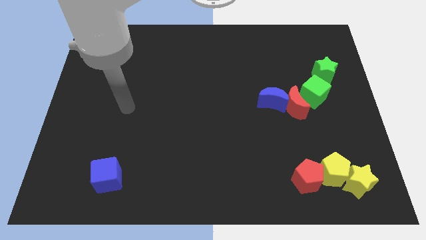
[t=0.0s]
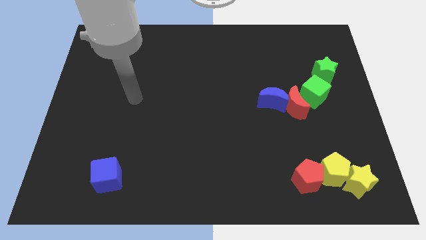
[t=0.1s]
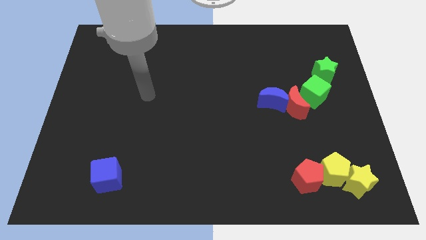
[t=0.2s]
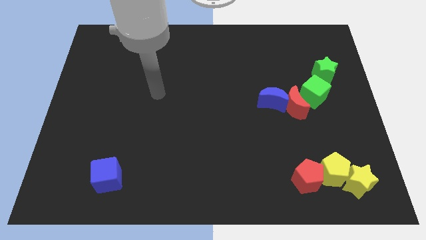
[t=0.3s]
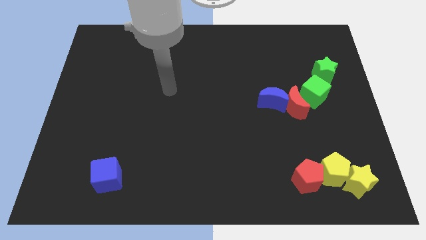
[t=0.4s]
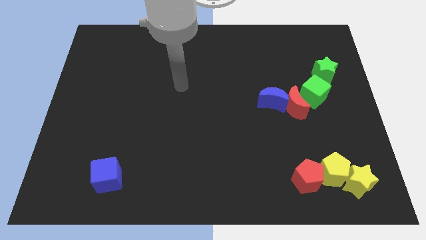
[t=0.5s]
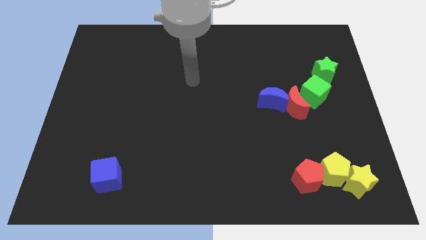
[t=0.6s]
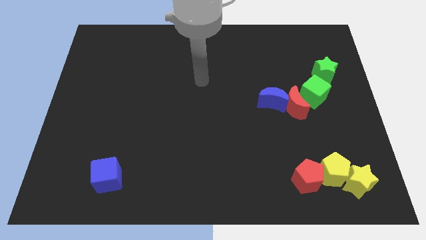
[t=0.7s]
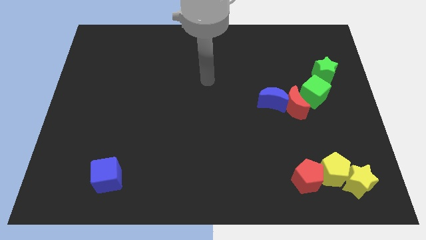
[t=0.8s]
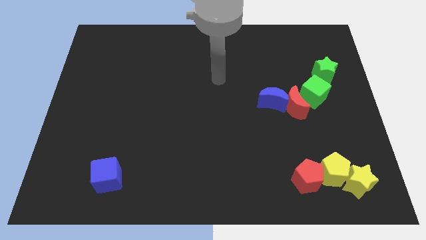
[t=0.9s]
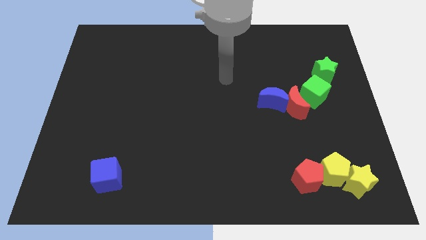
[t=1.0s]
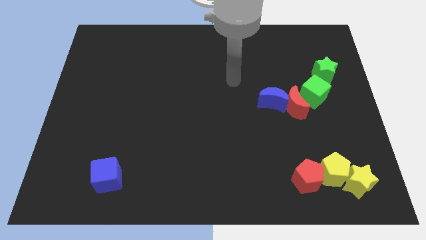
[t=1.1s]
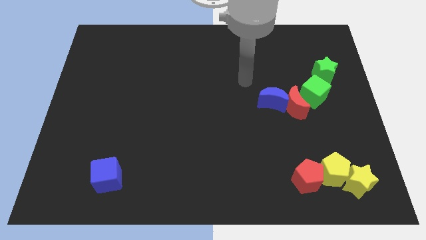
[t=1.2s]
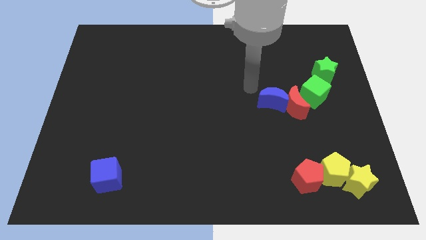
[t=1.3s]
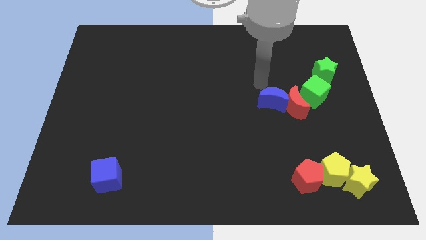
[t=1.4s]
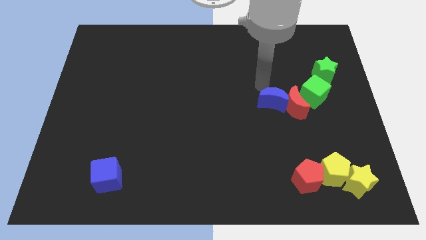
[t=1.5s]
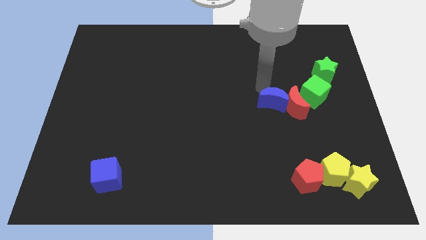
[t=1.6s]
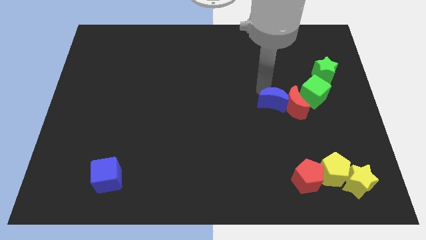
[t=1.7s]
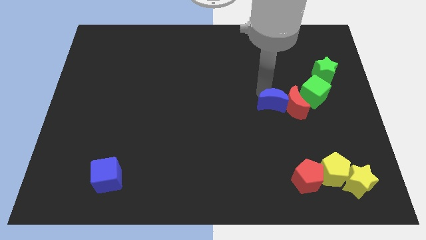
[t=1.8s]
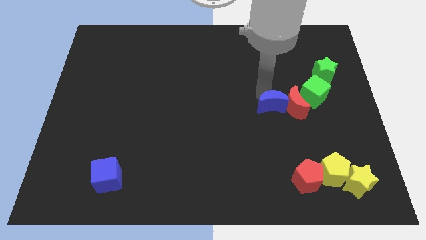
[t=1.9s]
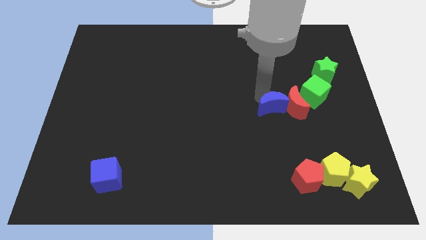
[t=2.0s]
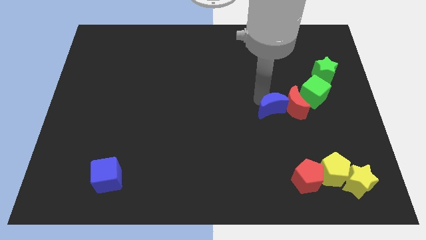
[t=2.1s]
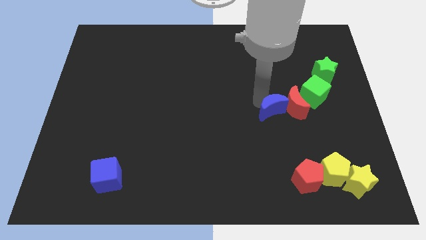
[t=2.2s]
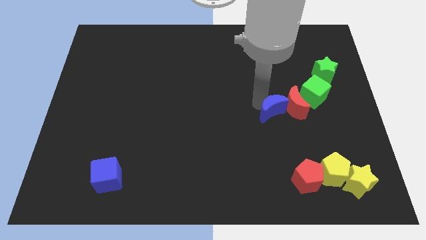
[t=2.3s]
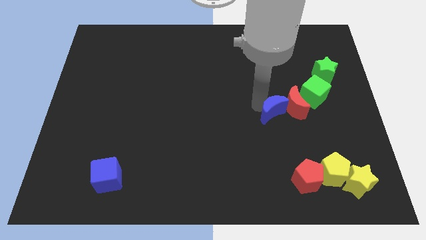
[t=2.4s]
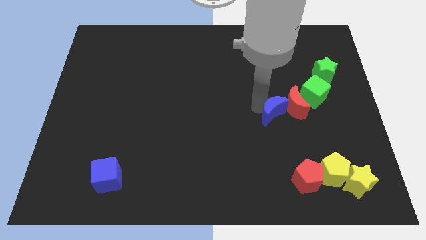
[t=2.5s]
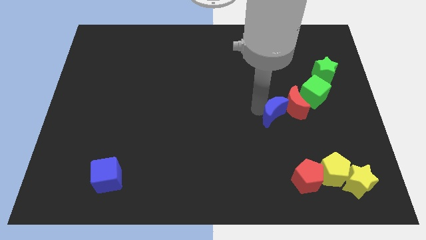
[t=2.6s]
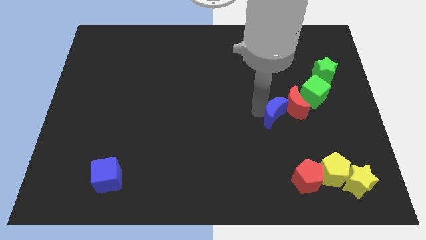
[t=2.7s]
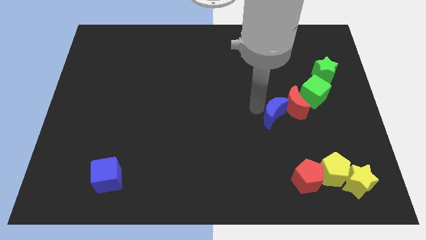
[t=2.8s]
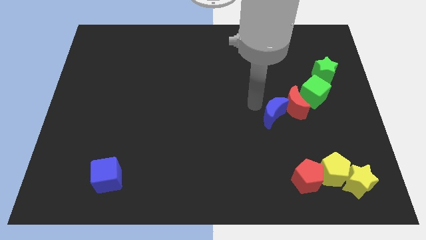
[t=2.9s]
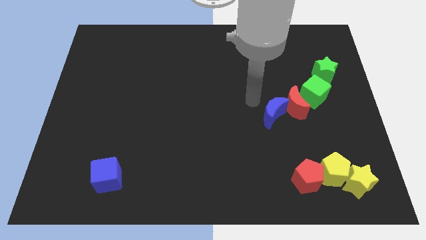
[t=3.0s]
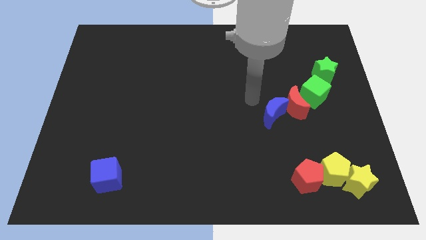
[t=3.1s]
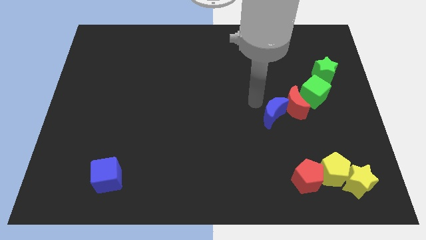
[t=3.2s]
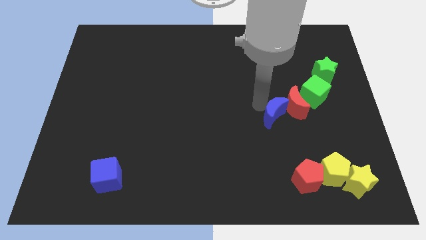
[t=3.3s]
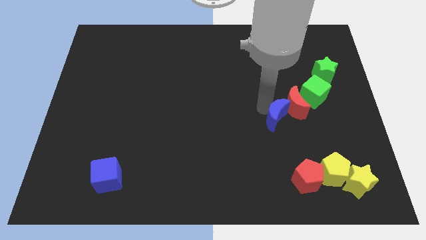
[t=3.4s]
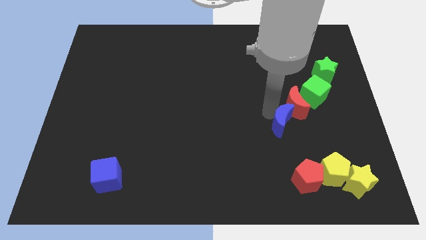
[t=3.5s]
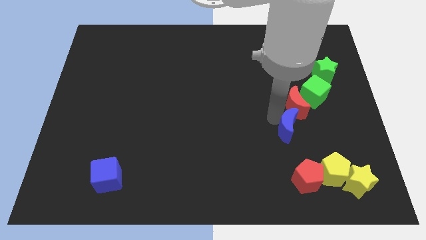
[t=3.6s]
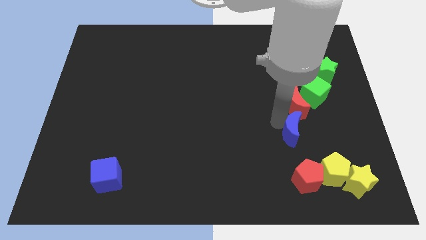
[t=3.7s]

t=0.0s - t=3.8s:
push the blue moon downwards and then right a bit

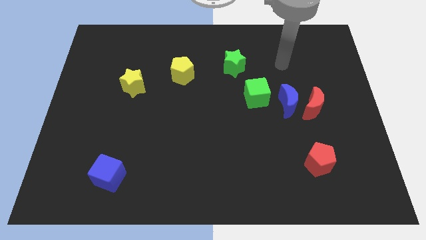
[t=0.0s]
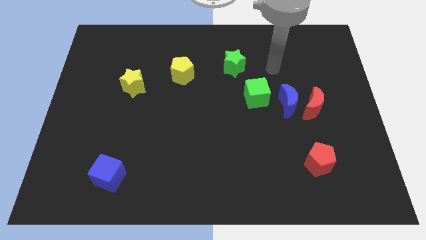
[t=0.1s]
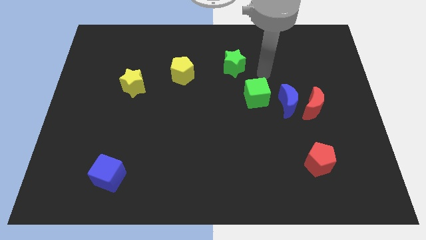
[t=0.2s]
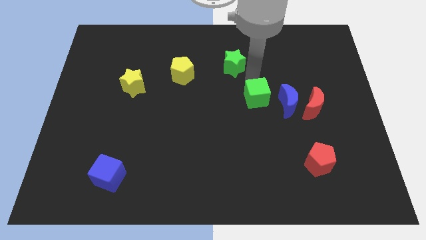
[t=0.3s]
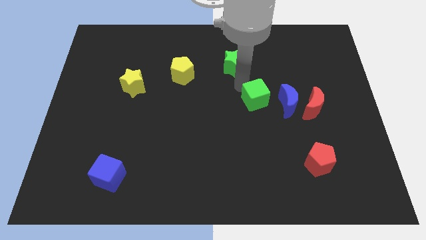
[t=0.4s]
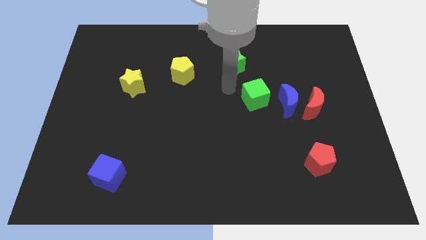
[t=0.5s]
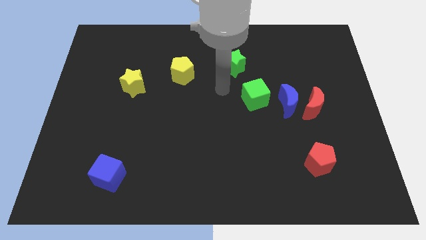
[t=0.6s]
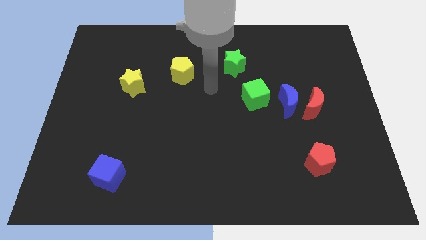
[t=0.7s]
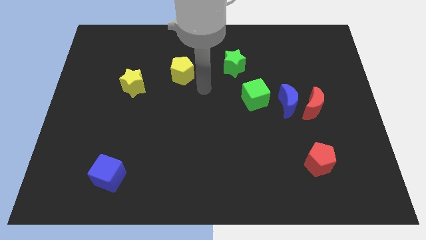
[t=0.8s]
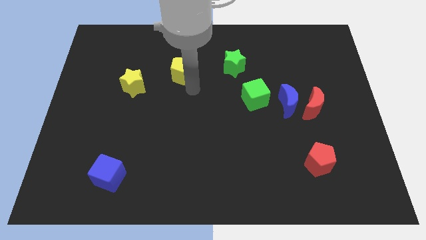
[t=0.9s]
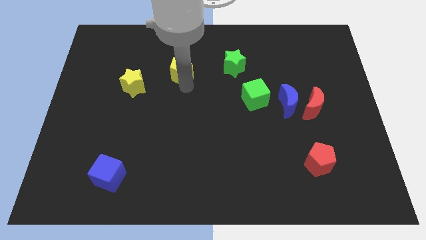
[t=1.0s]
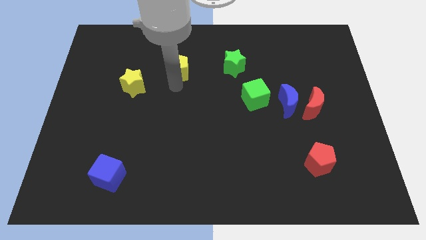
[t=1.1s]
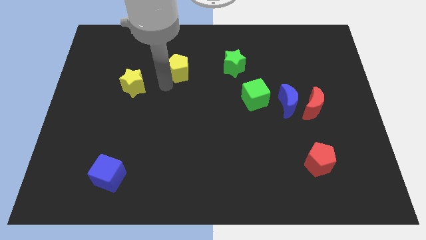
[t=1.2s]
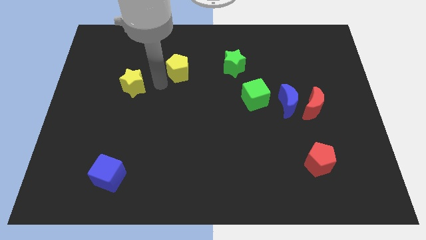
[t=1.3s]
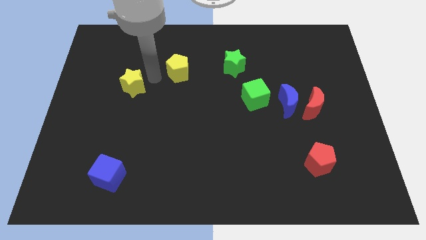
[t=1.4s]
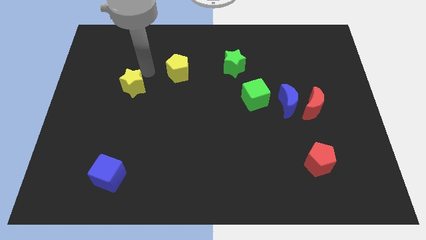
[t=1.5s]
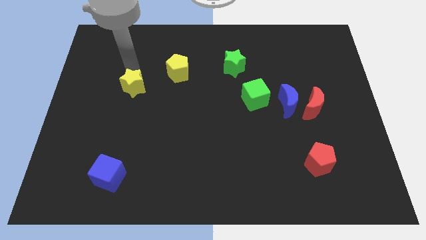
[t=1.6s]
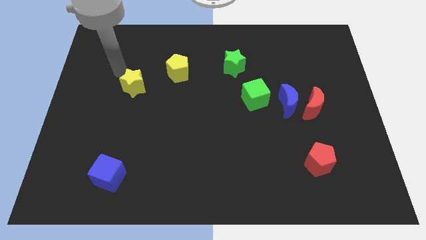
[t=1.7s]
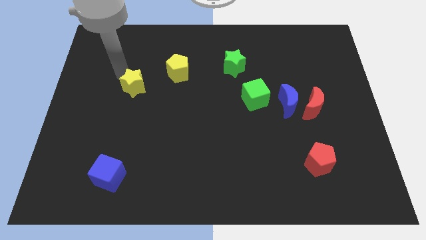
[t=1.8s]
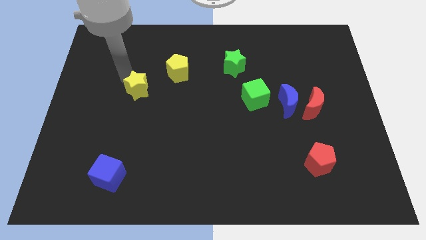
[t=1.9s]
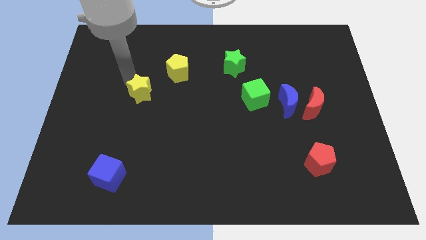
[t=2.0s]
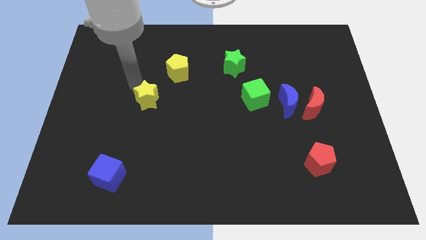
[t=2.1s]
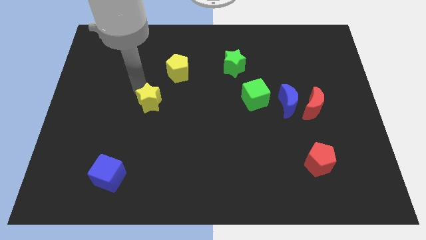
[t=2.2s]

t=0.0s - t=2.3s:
move the yellow star downwards and to the right diagonally somewhat

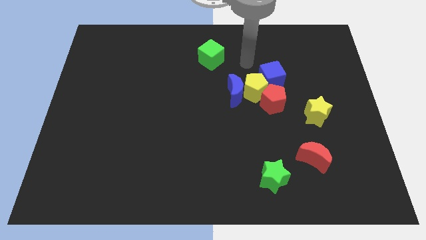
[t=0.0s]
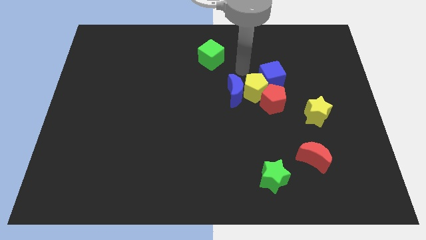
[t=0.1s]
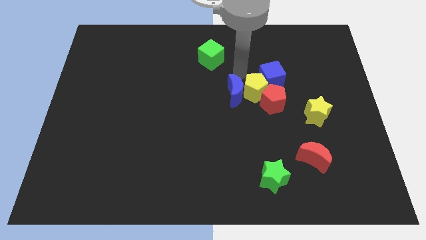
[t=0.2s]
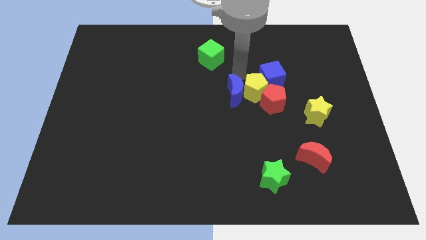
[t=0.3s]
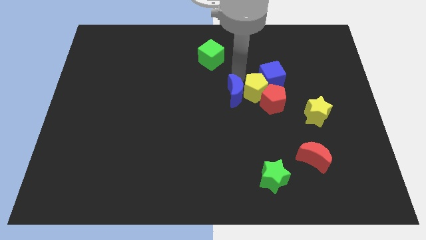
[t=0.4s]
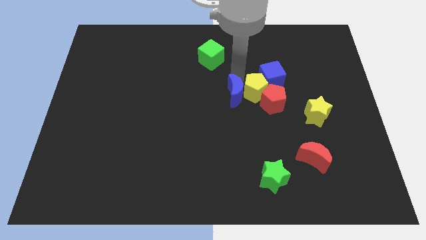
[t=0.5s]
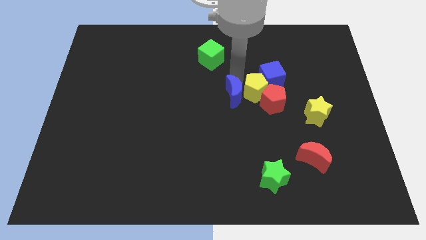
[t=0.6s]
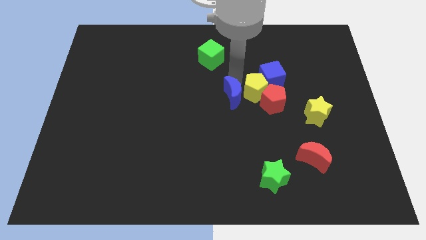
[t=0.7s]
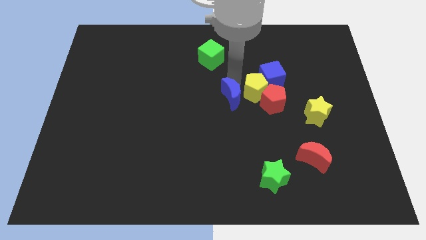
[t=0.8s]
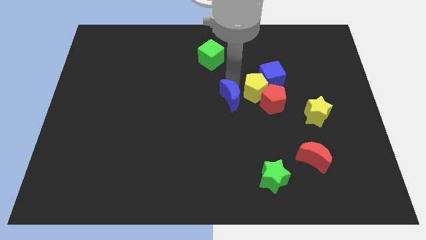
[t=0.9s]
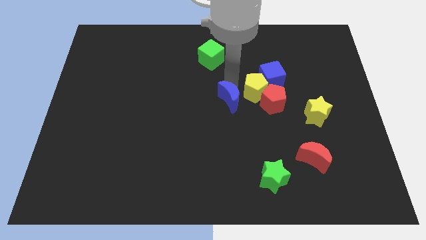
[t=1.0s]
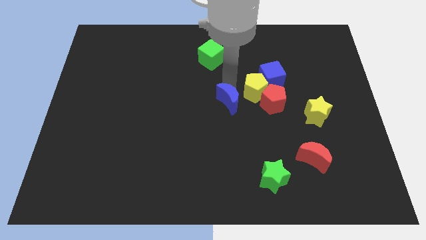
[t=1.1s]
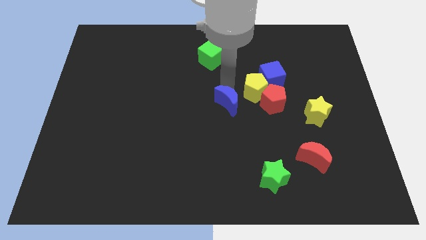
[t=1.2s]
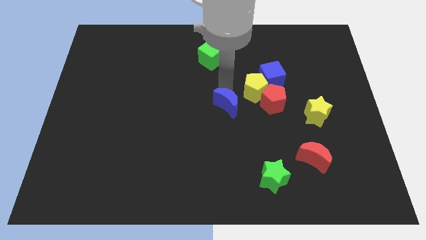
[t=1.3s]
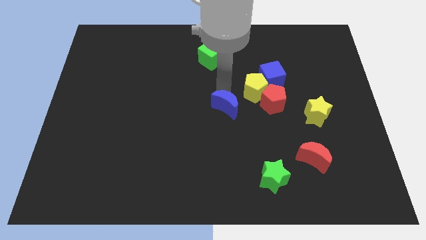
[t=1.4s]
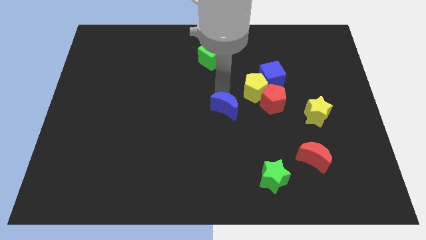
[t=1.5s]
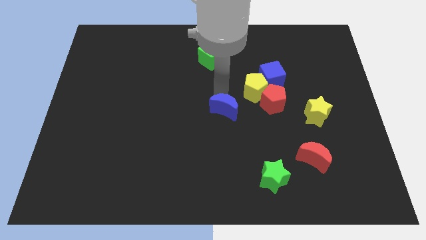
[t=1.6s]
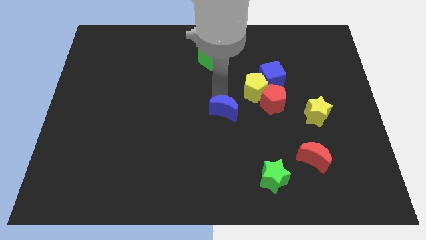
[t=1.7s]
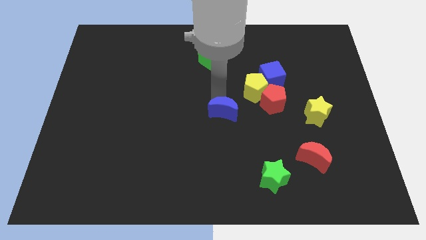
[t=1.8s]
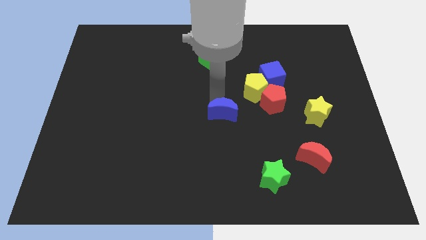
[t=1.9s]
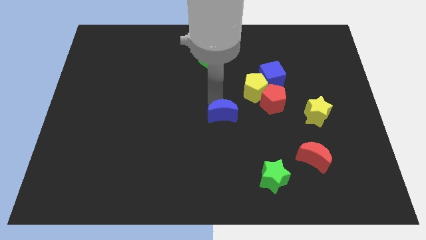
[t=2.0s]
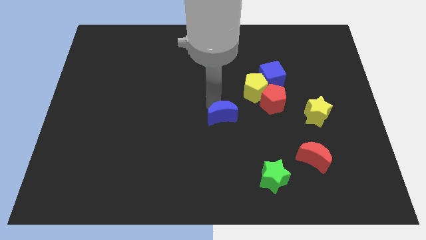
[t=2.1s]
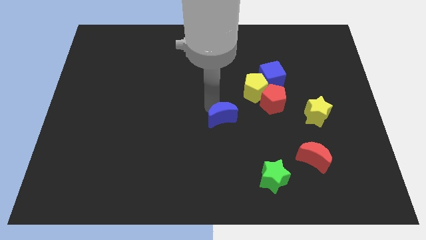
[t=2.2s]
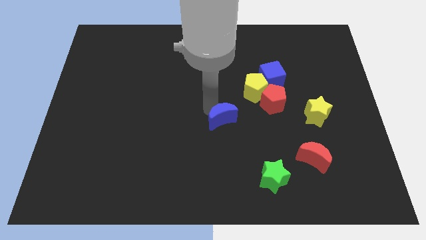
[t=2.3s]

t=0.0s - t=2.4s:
slightly slide the blue moon down
